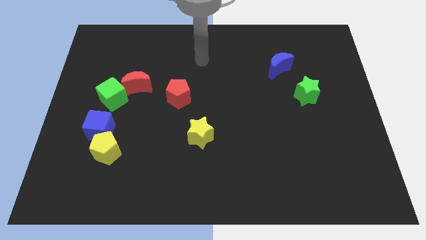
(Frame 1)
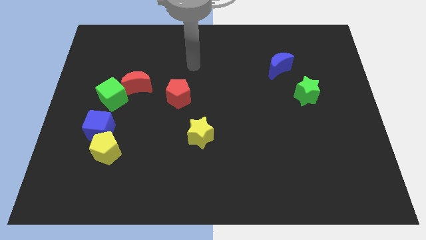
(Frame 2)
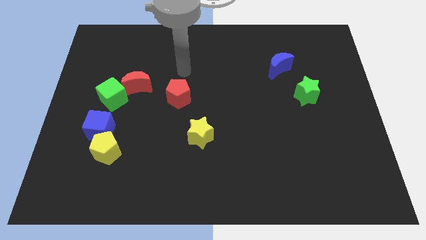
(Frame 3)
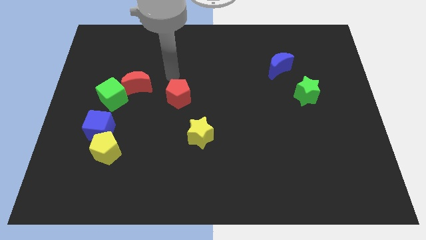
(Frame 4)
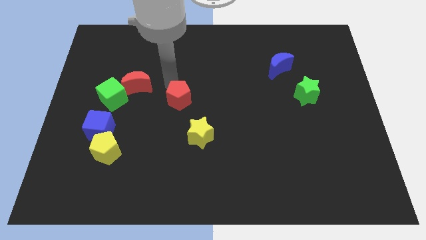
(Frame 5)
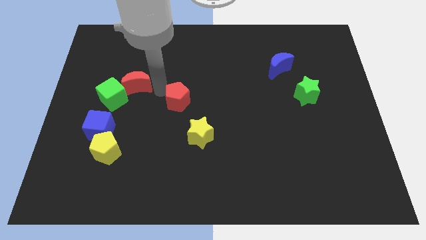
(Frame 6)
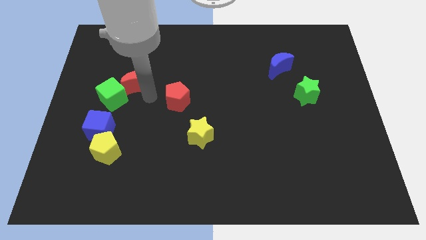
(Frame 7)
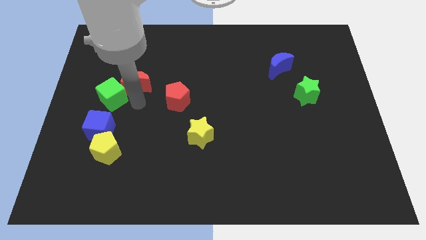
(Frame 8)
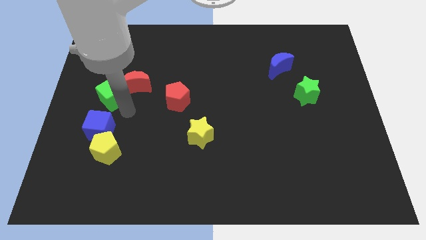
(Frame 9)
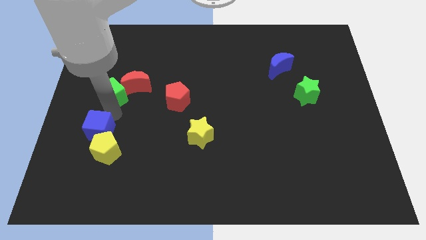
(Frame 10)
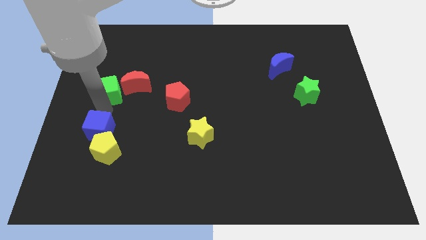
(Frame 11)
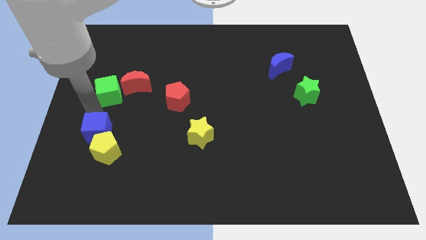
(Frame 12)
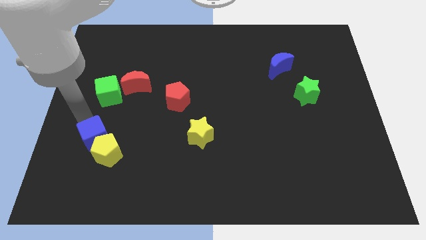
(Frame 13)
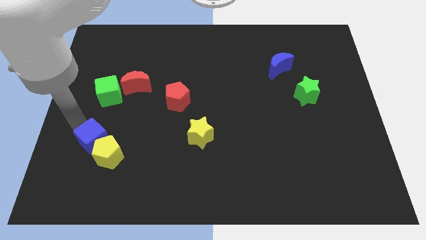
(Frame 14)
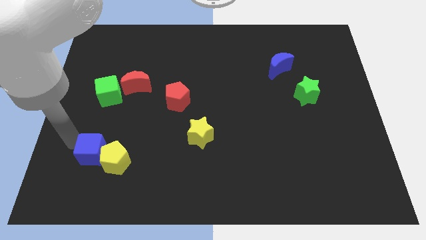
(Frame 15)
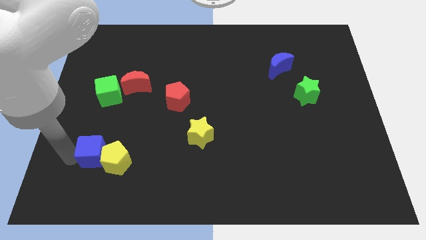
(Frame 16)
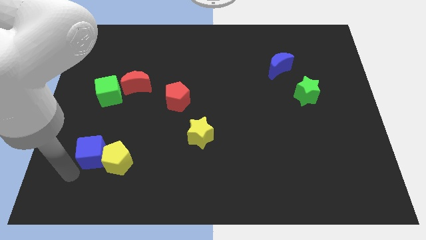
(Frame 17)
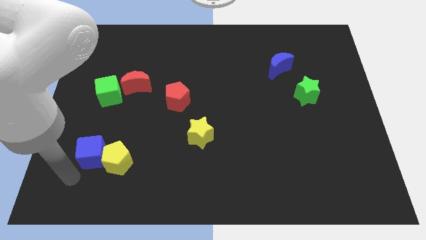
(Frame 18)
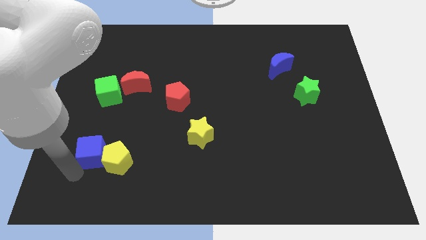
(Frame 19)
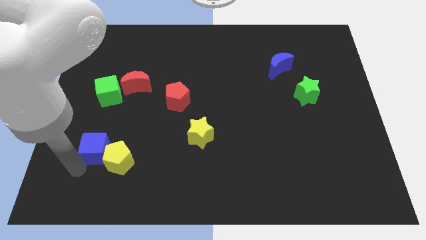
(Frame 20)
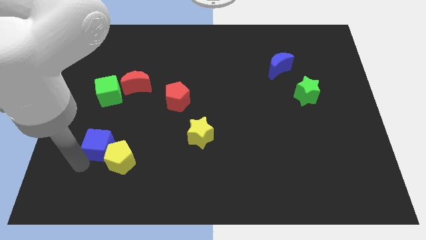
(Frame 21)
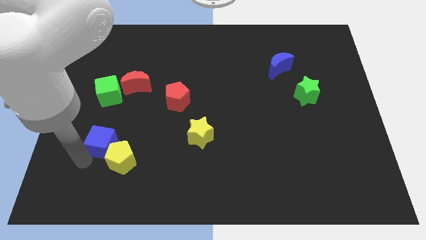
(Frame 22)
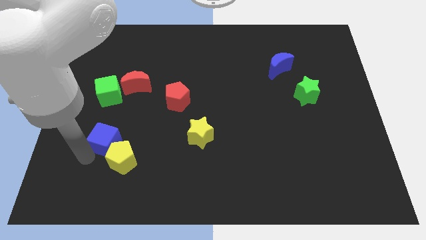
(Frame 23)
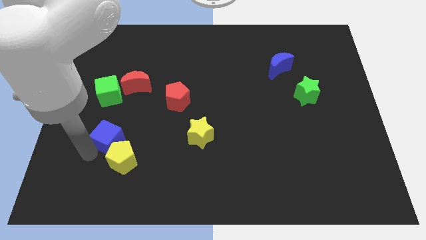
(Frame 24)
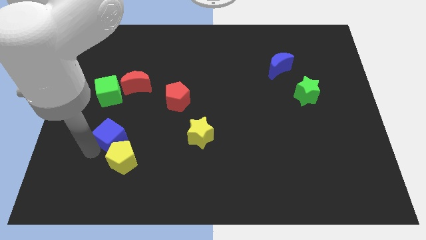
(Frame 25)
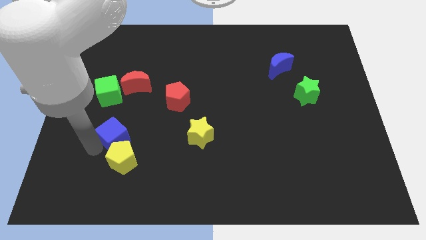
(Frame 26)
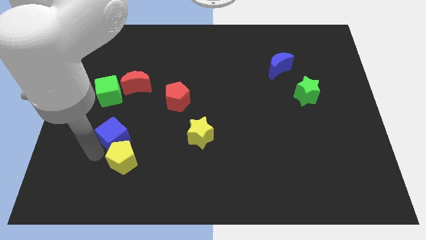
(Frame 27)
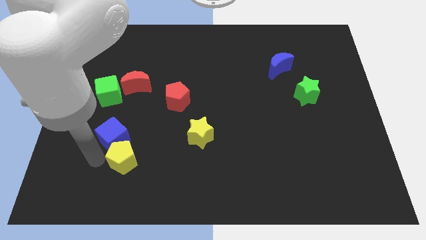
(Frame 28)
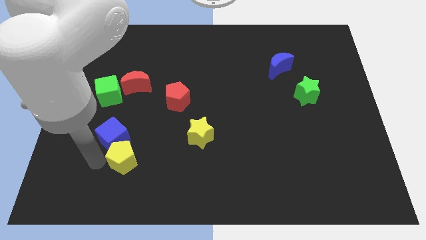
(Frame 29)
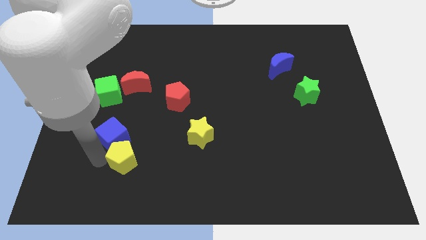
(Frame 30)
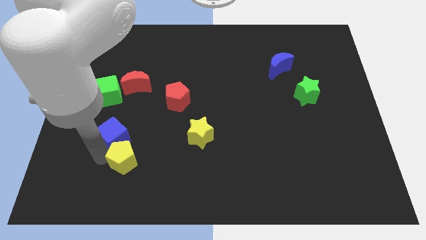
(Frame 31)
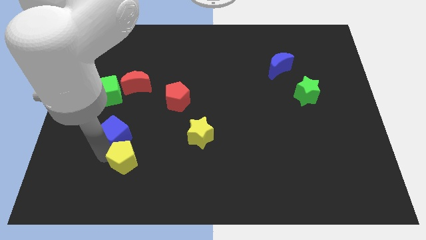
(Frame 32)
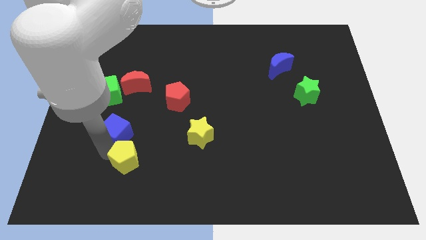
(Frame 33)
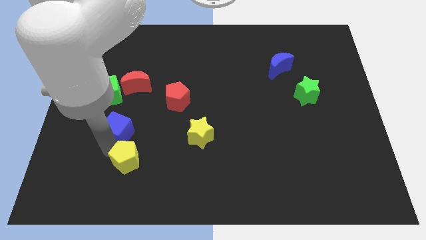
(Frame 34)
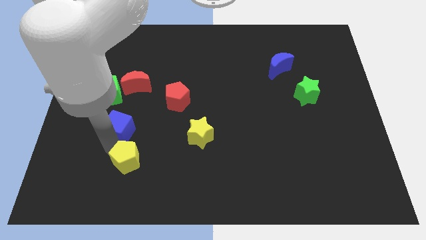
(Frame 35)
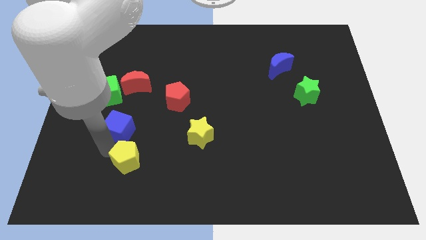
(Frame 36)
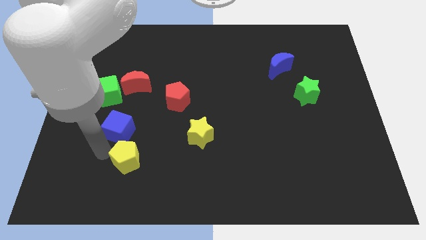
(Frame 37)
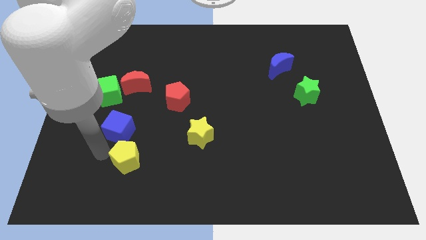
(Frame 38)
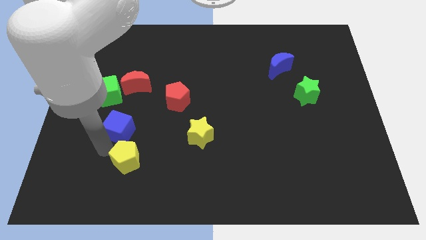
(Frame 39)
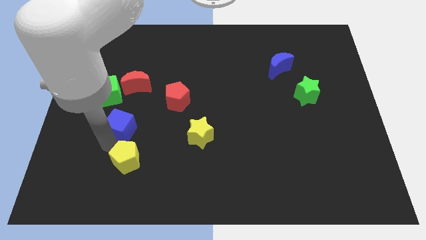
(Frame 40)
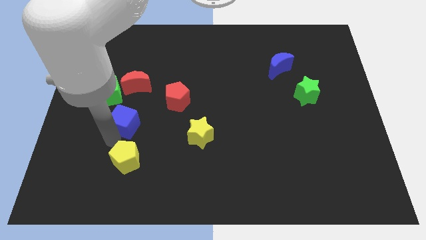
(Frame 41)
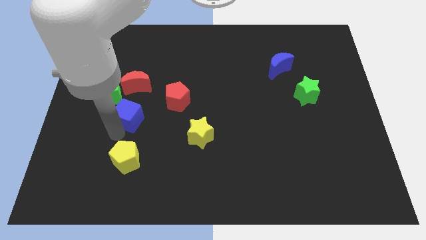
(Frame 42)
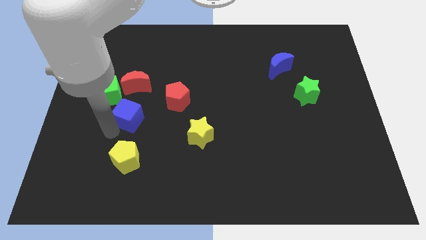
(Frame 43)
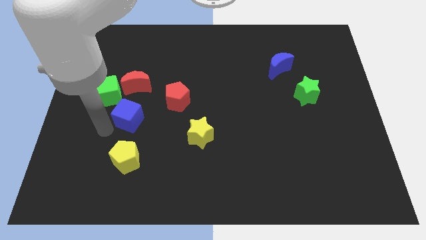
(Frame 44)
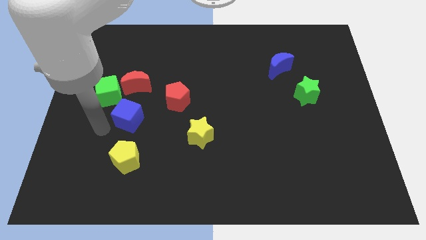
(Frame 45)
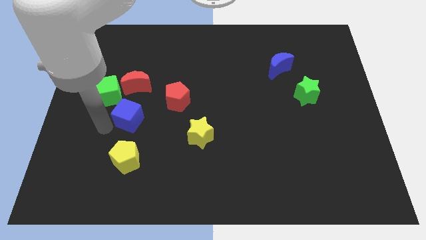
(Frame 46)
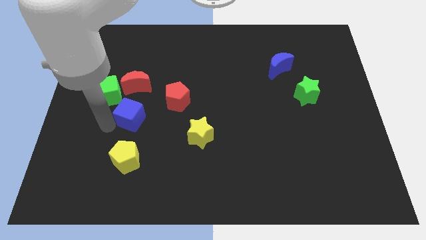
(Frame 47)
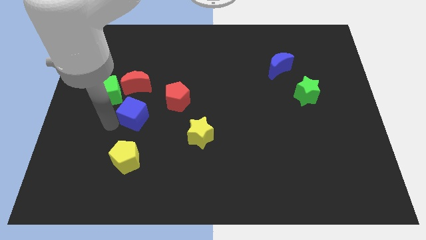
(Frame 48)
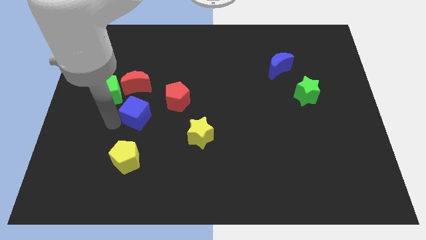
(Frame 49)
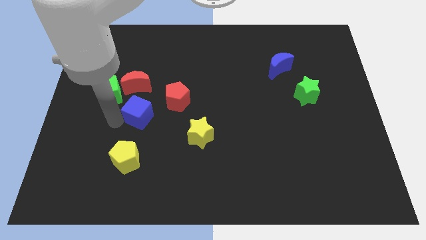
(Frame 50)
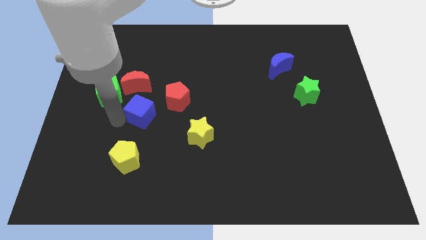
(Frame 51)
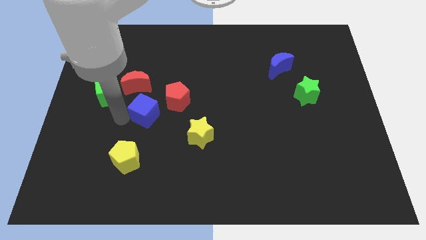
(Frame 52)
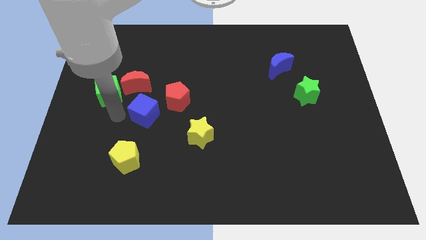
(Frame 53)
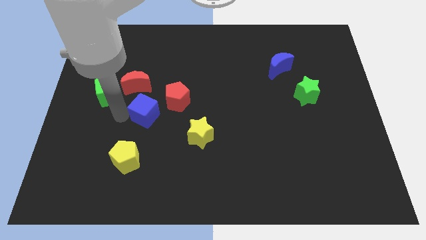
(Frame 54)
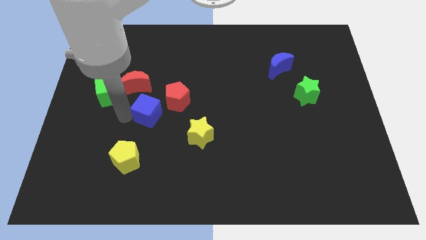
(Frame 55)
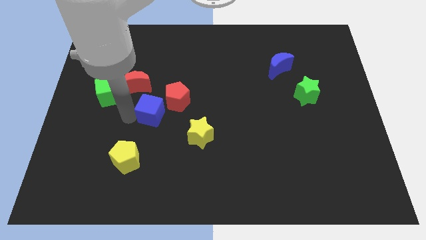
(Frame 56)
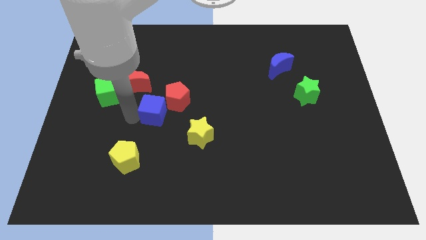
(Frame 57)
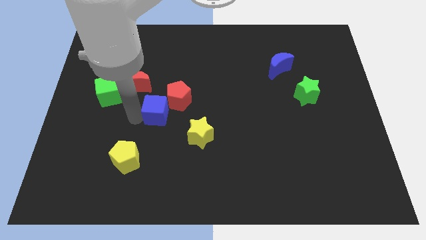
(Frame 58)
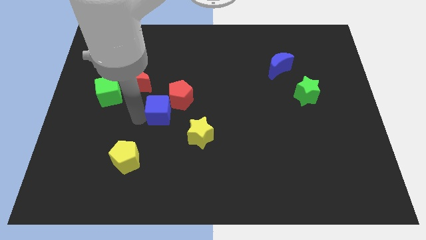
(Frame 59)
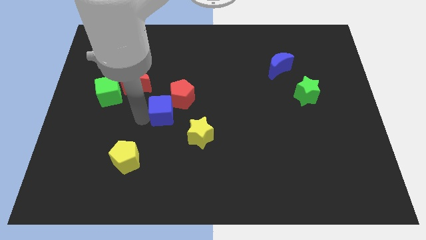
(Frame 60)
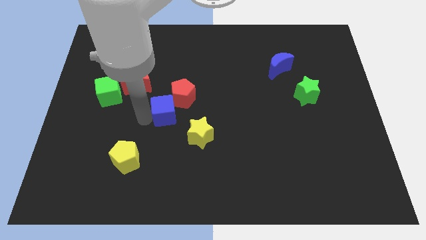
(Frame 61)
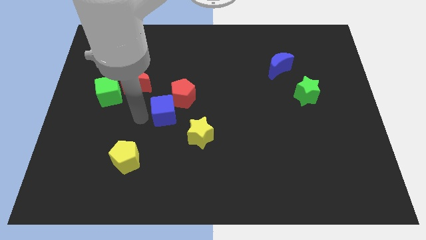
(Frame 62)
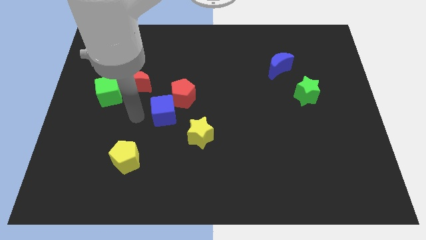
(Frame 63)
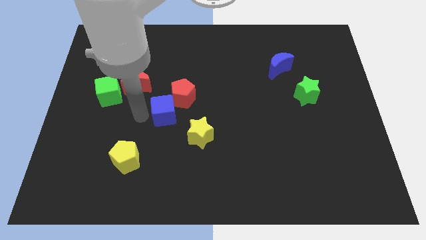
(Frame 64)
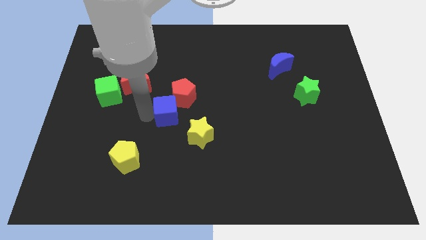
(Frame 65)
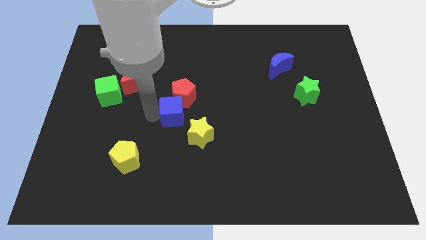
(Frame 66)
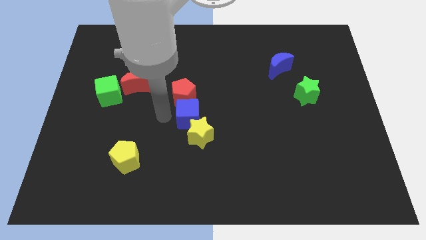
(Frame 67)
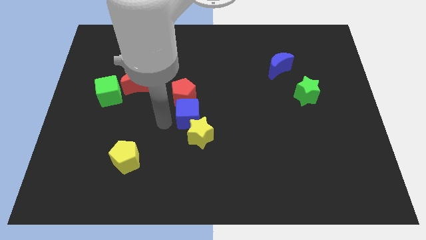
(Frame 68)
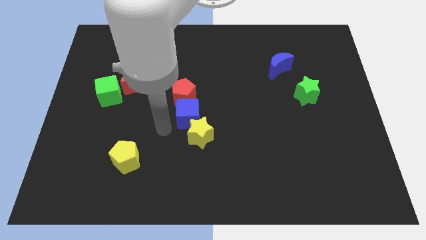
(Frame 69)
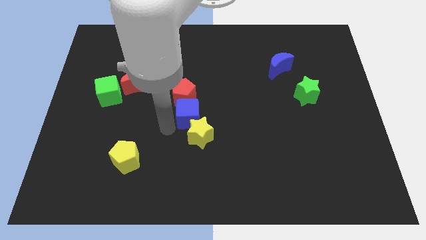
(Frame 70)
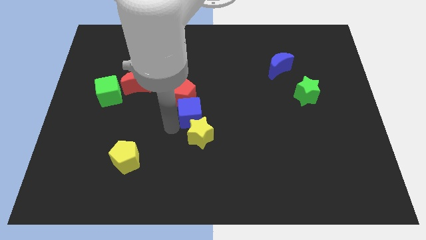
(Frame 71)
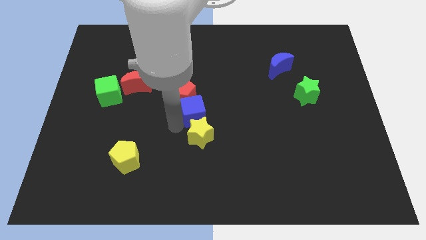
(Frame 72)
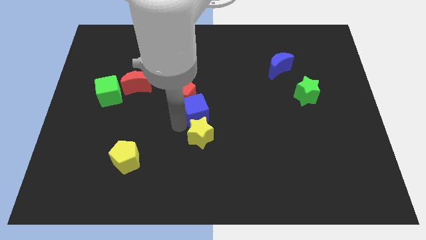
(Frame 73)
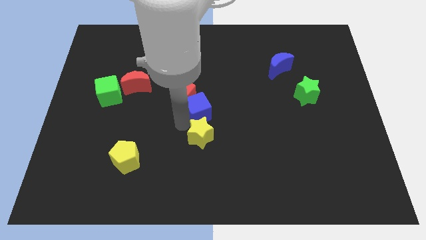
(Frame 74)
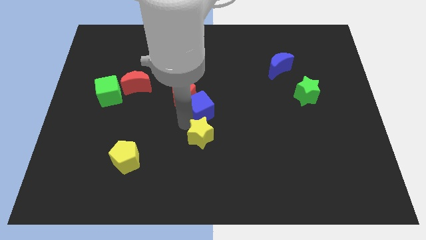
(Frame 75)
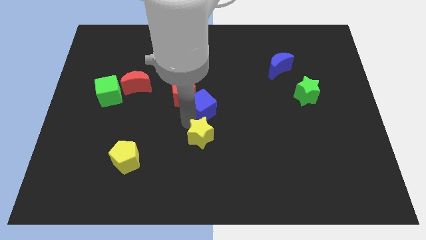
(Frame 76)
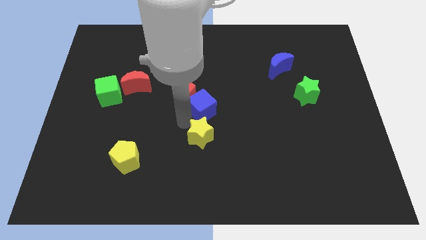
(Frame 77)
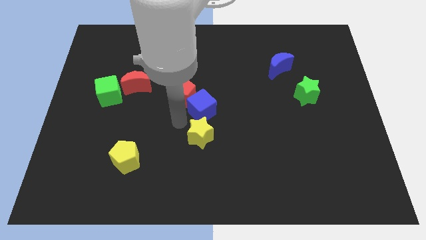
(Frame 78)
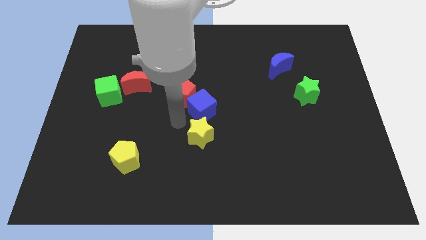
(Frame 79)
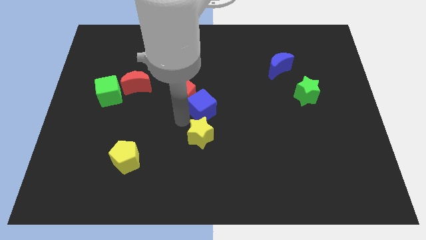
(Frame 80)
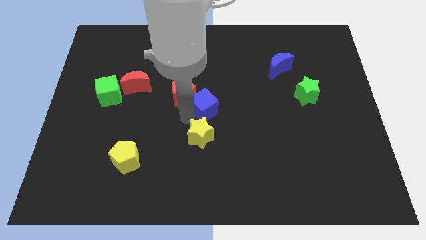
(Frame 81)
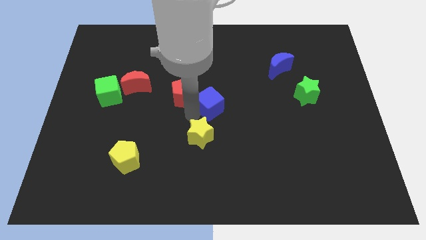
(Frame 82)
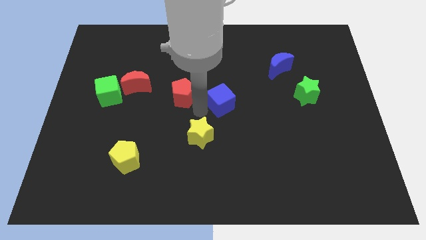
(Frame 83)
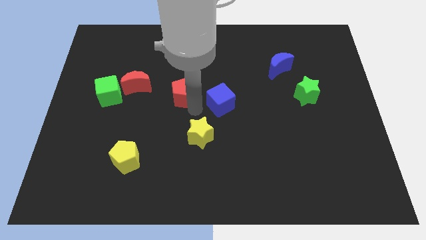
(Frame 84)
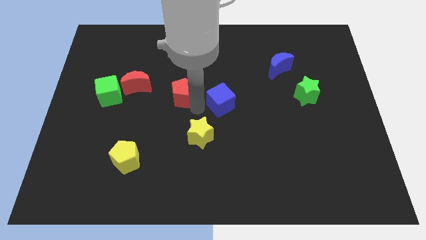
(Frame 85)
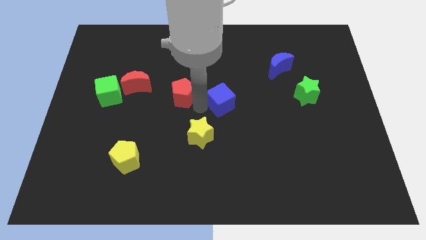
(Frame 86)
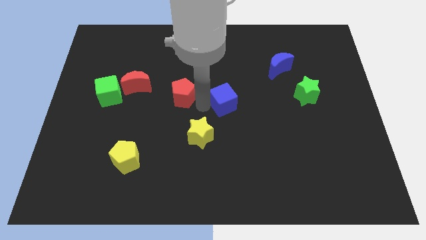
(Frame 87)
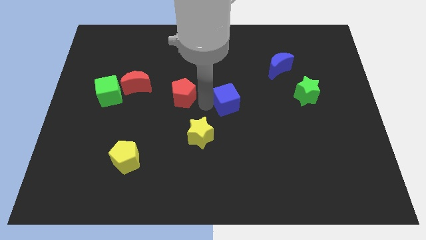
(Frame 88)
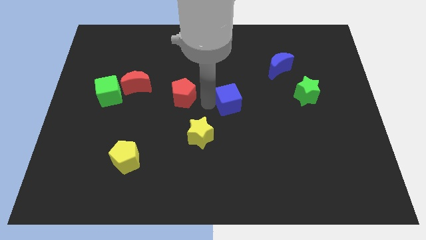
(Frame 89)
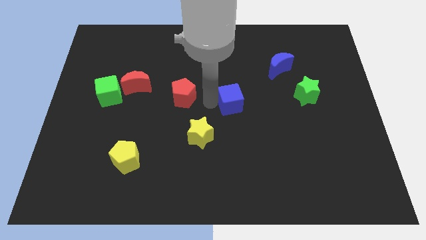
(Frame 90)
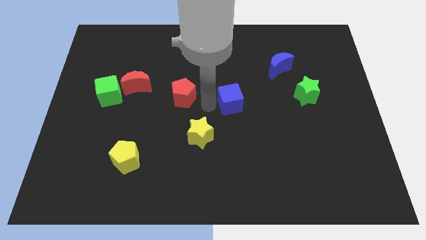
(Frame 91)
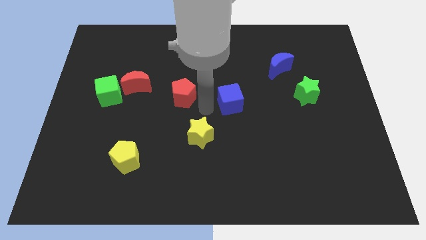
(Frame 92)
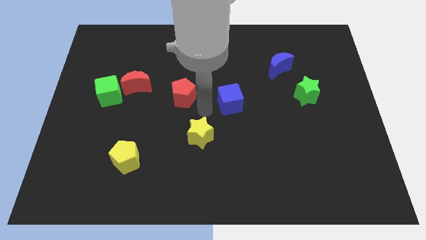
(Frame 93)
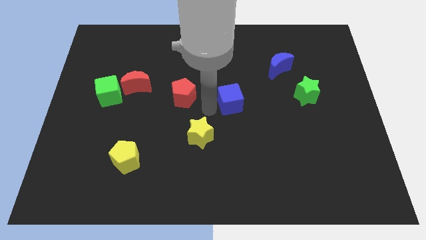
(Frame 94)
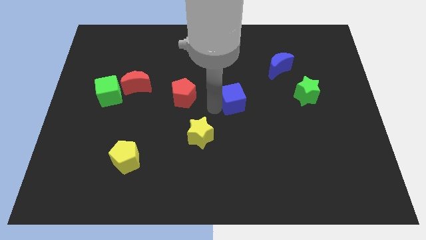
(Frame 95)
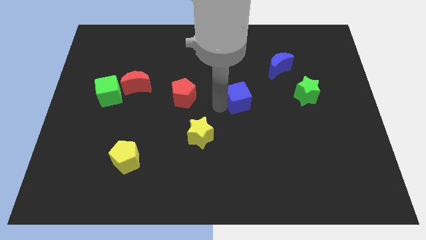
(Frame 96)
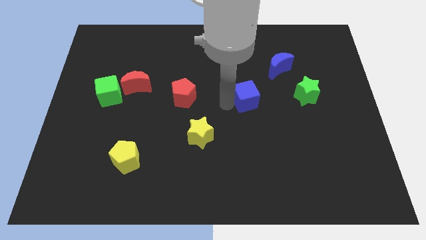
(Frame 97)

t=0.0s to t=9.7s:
move the blue cube left of the green star
